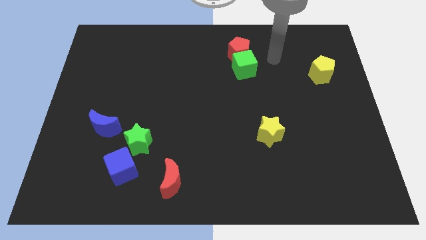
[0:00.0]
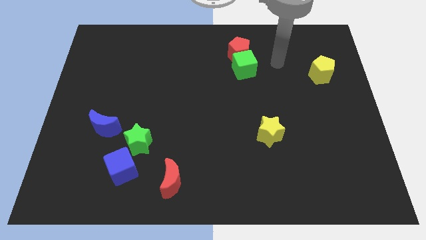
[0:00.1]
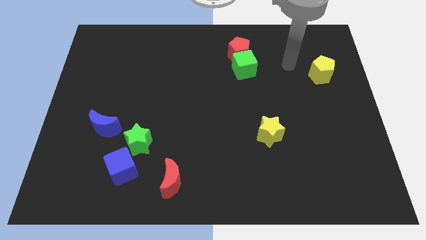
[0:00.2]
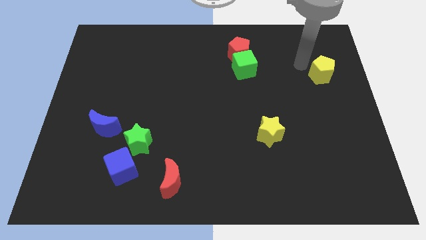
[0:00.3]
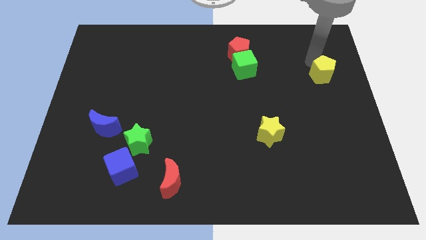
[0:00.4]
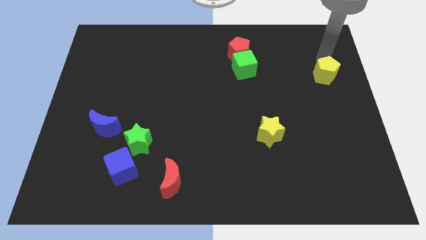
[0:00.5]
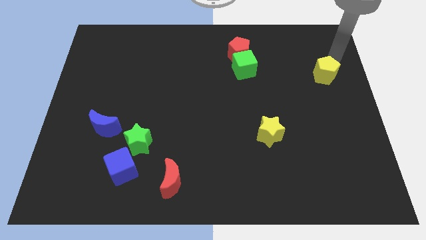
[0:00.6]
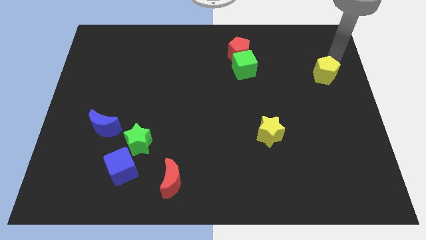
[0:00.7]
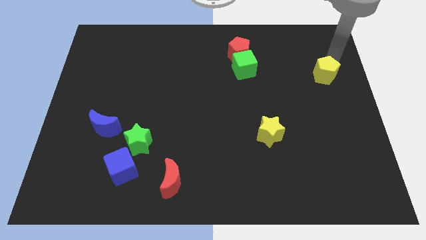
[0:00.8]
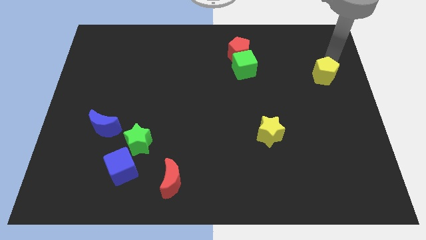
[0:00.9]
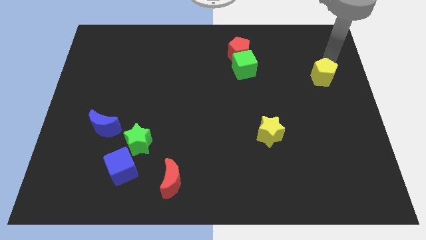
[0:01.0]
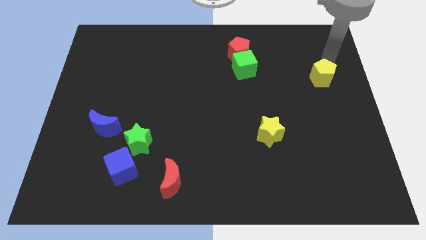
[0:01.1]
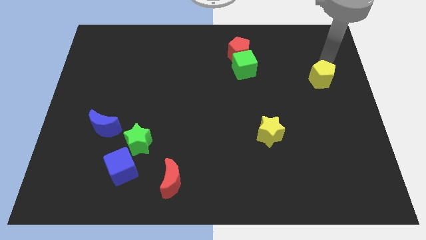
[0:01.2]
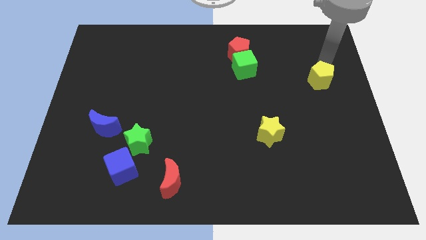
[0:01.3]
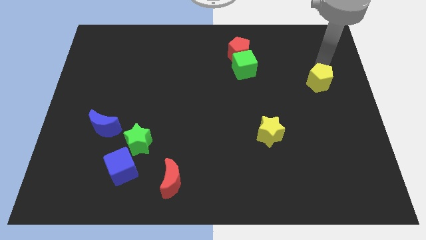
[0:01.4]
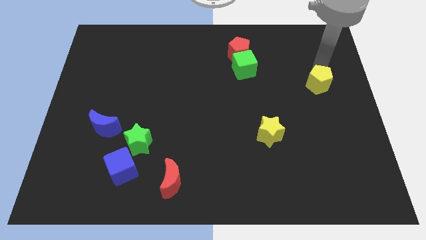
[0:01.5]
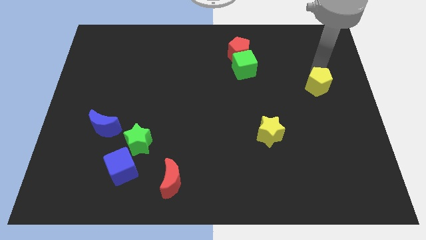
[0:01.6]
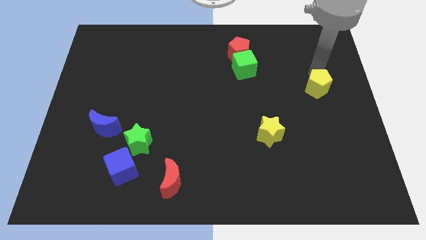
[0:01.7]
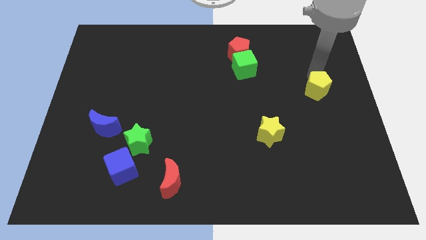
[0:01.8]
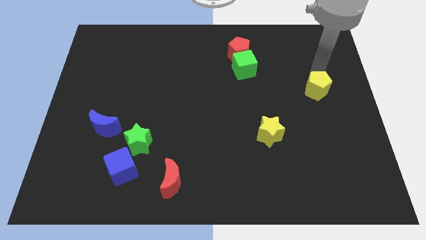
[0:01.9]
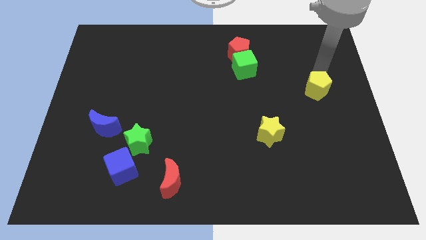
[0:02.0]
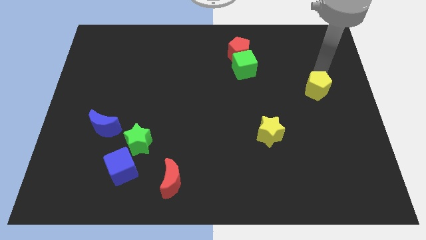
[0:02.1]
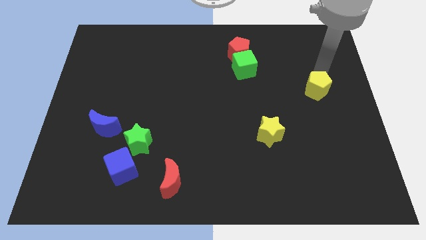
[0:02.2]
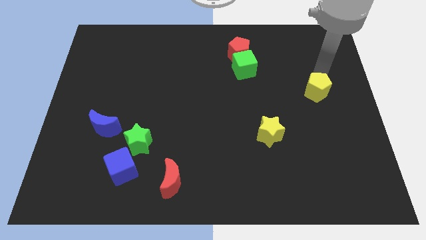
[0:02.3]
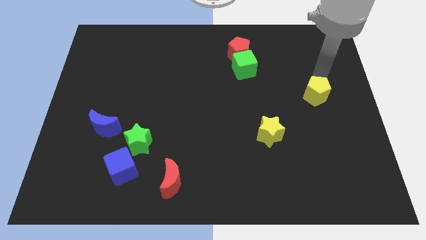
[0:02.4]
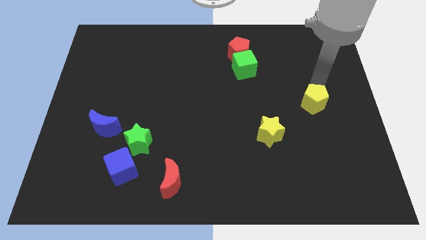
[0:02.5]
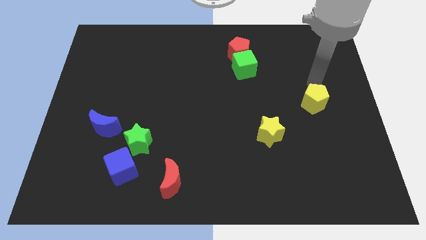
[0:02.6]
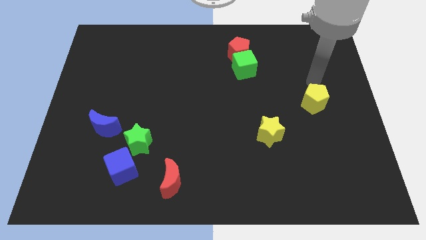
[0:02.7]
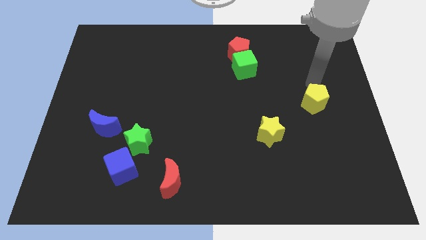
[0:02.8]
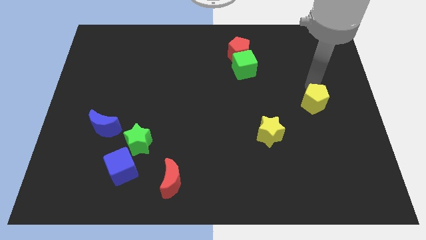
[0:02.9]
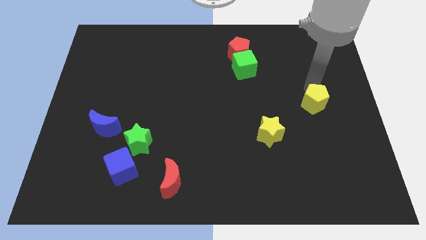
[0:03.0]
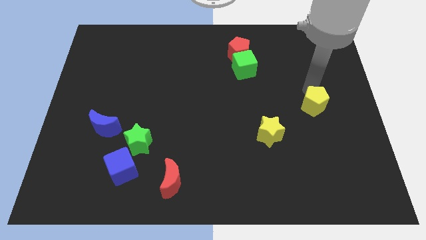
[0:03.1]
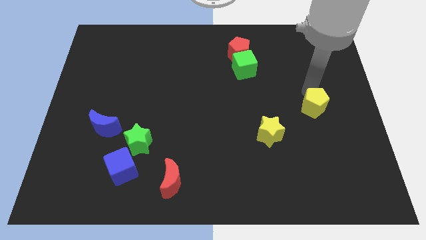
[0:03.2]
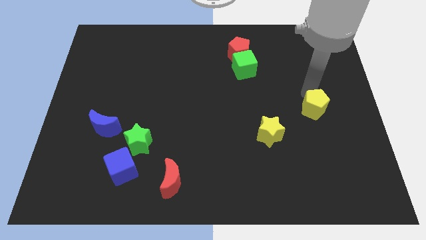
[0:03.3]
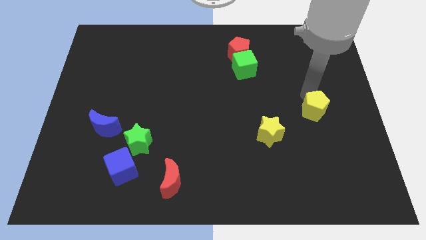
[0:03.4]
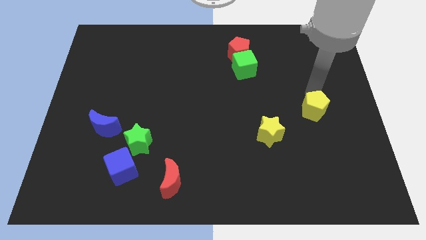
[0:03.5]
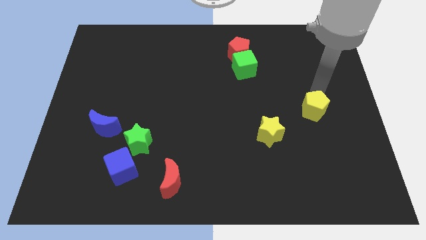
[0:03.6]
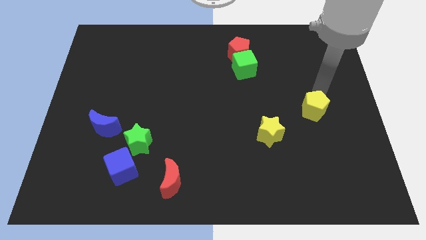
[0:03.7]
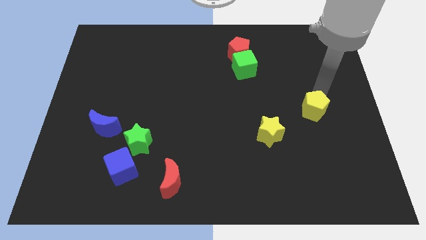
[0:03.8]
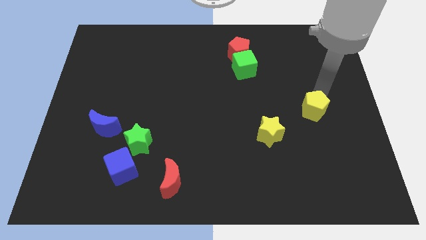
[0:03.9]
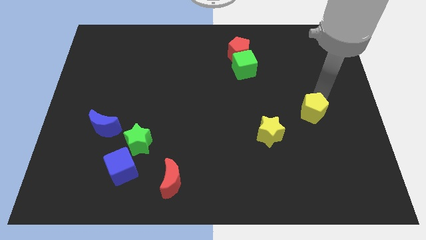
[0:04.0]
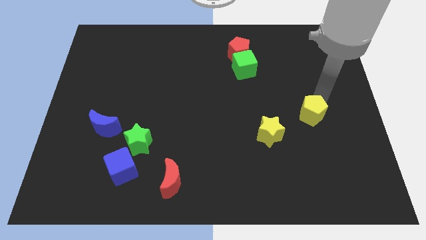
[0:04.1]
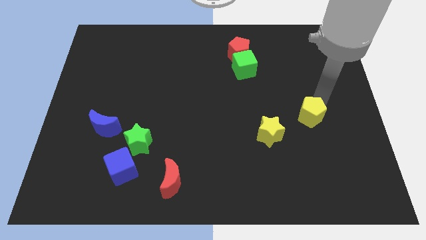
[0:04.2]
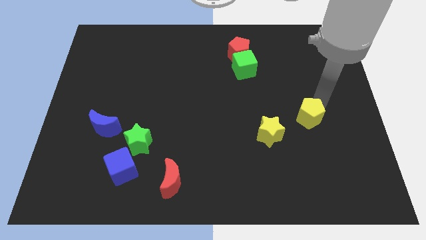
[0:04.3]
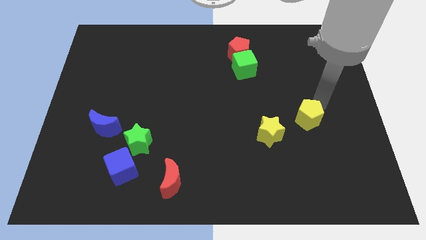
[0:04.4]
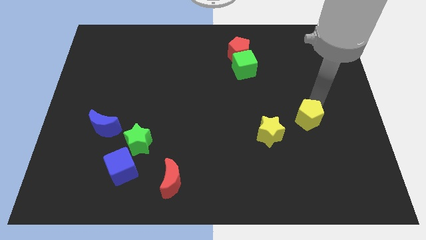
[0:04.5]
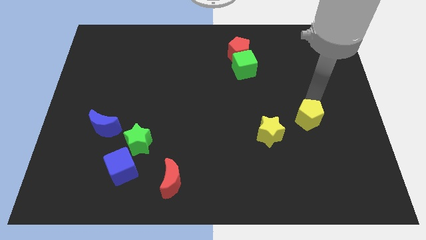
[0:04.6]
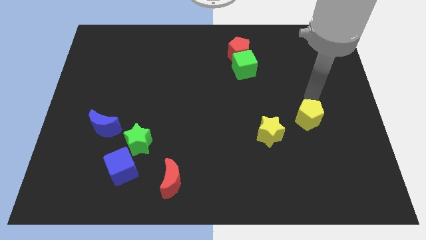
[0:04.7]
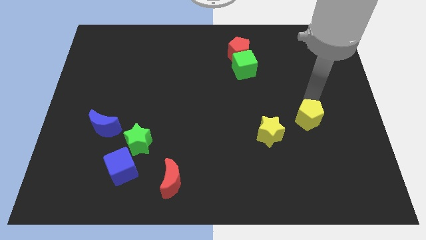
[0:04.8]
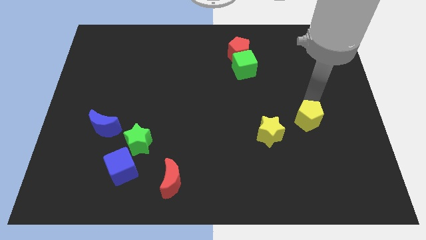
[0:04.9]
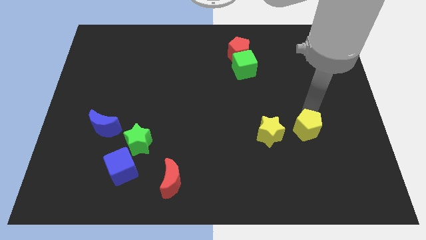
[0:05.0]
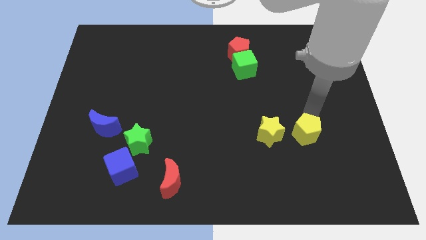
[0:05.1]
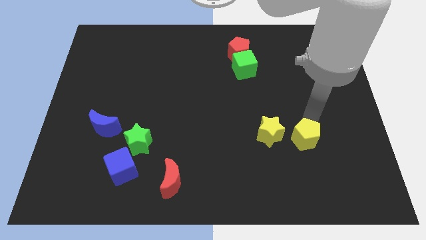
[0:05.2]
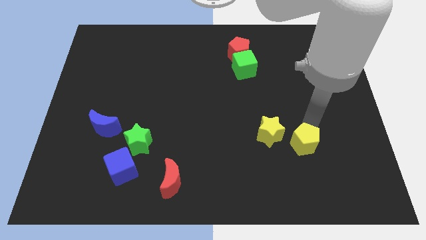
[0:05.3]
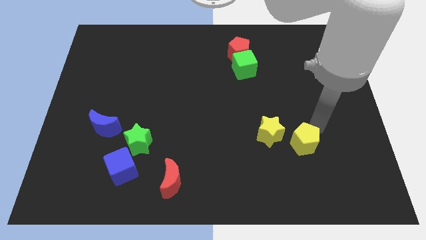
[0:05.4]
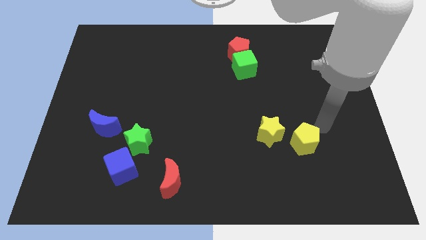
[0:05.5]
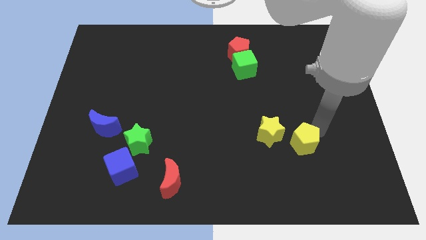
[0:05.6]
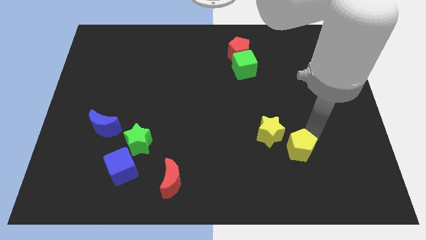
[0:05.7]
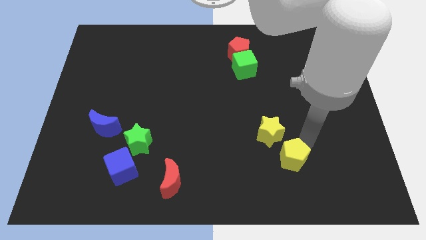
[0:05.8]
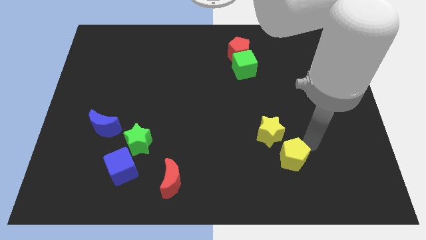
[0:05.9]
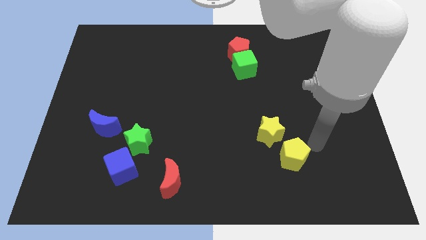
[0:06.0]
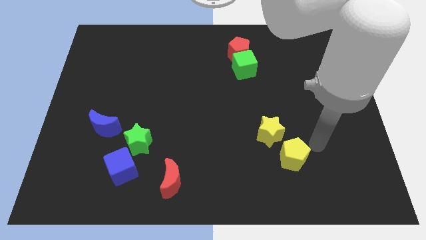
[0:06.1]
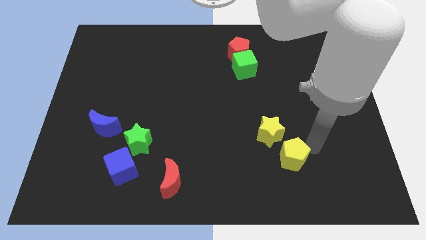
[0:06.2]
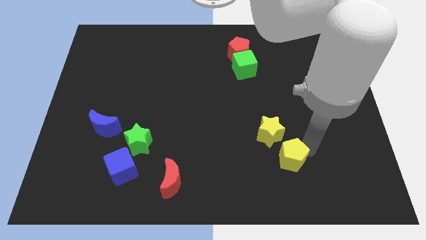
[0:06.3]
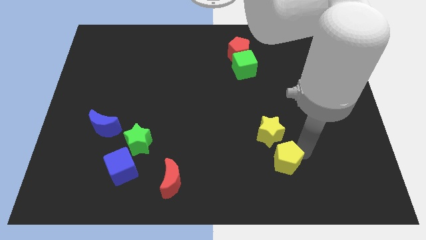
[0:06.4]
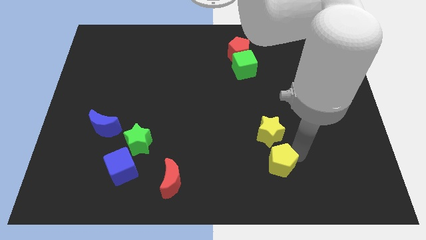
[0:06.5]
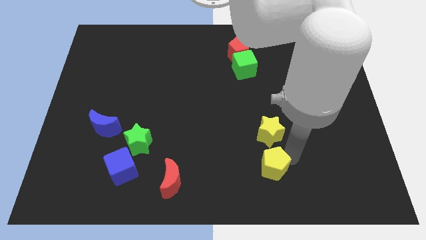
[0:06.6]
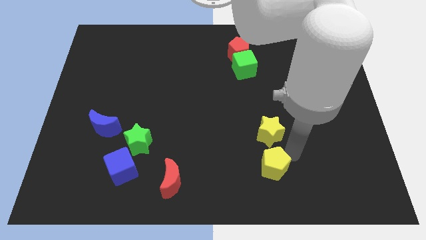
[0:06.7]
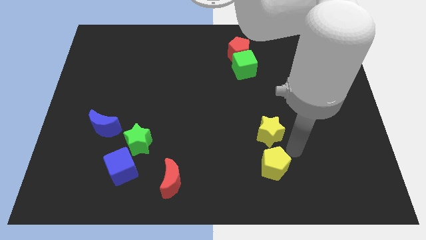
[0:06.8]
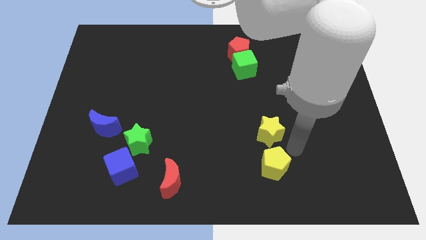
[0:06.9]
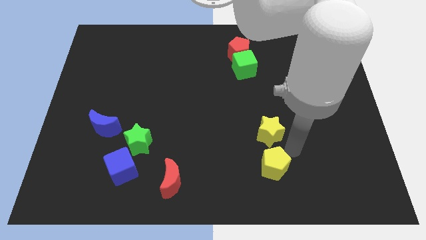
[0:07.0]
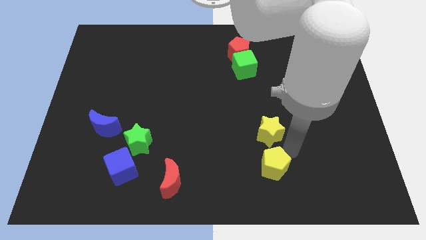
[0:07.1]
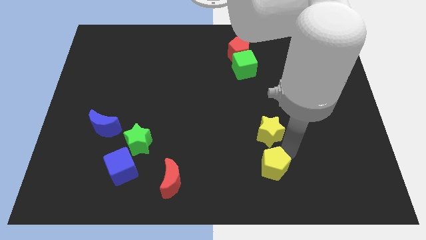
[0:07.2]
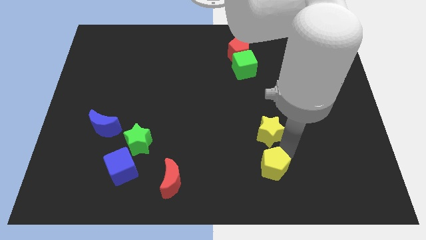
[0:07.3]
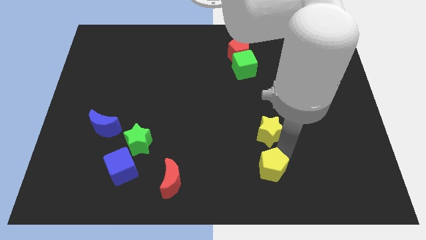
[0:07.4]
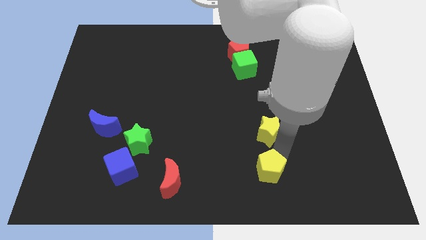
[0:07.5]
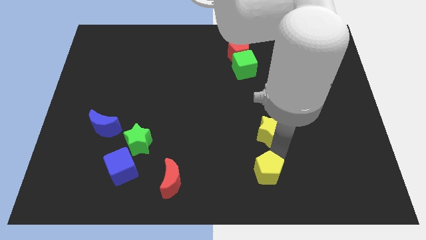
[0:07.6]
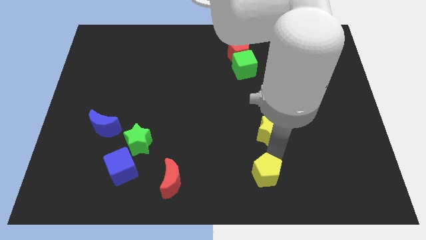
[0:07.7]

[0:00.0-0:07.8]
slide the yellow pentagon to the bottom
